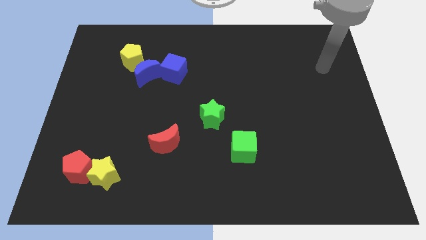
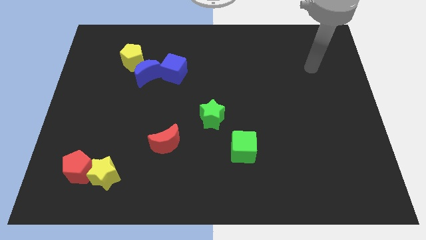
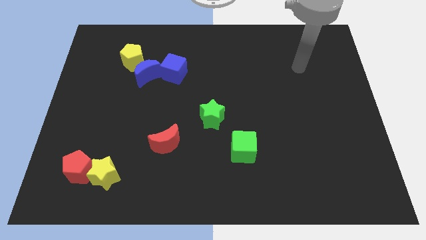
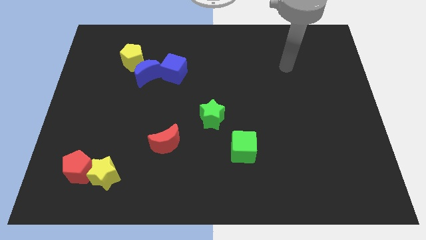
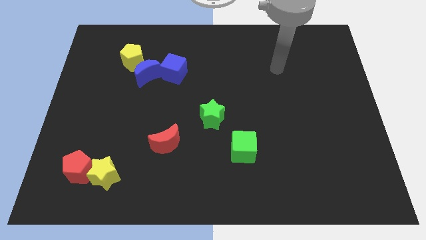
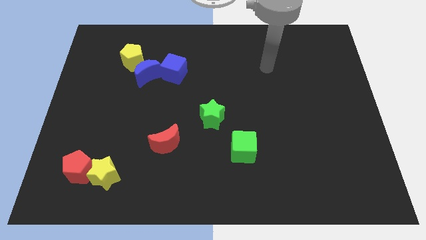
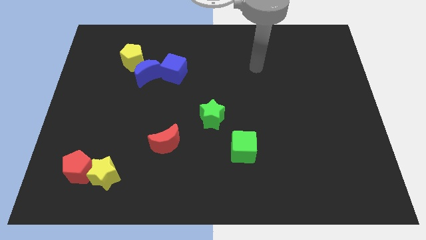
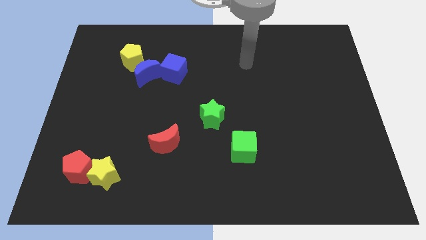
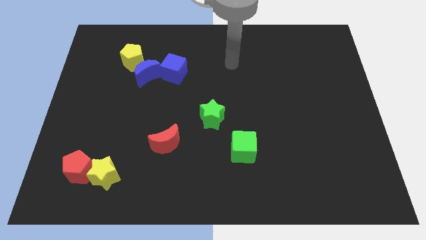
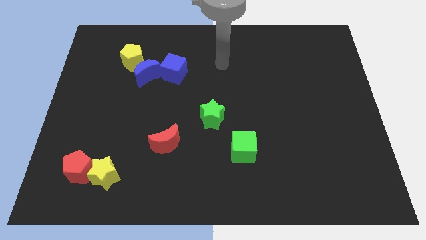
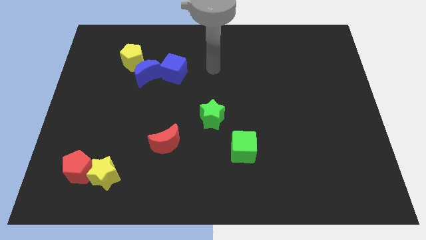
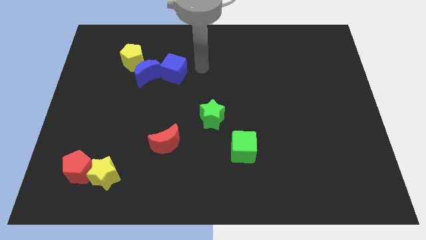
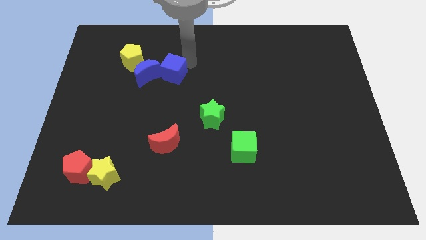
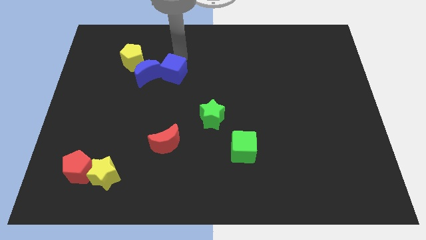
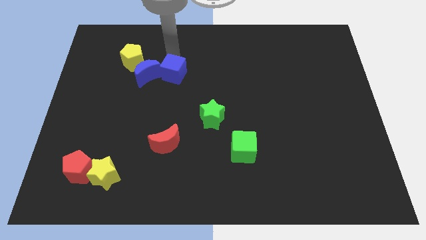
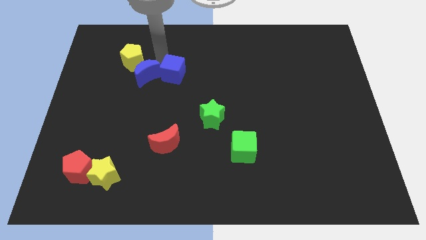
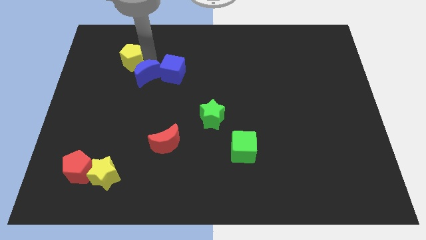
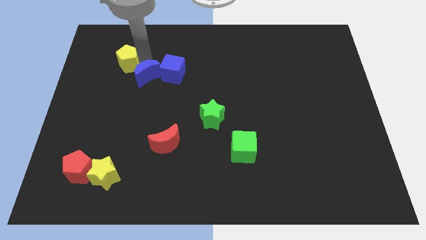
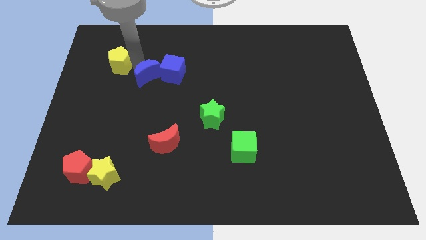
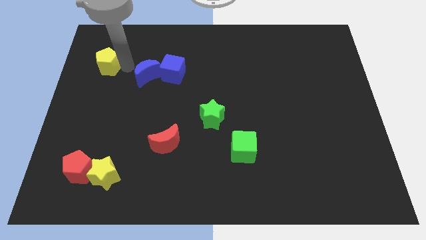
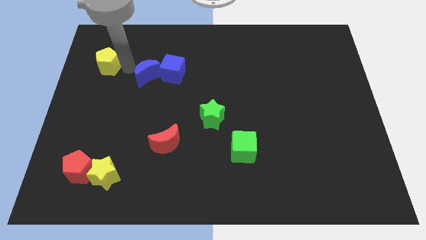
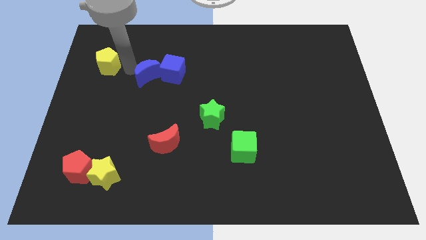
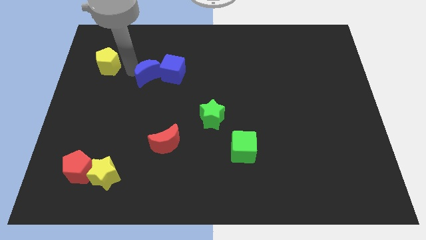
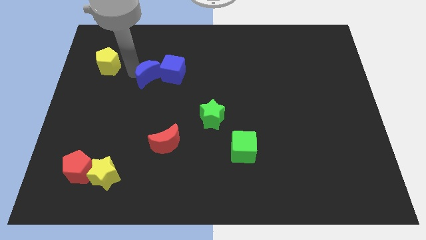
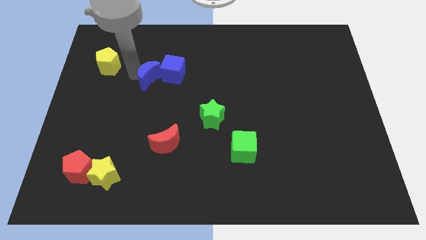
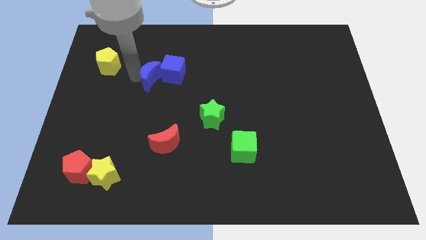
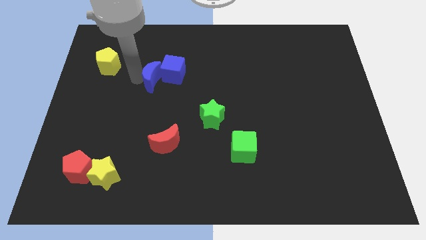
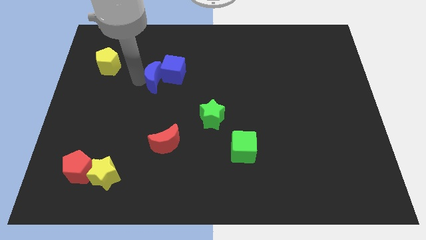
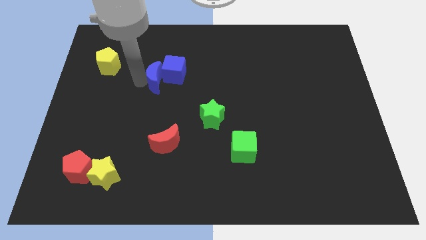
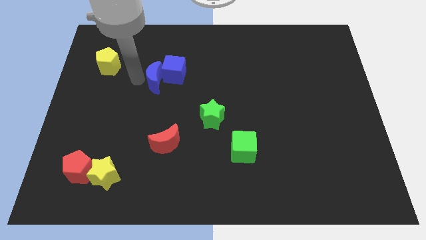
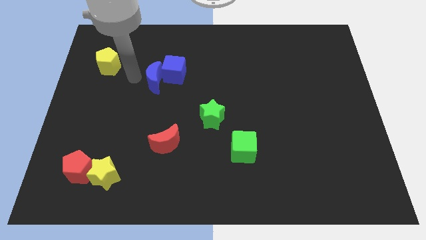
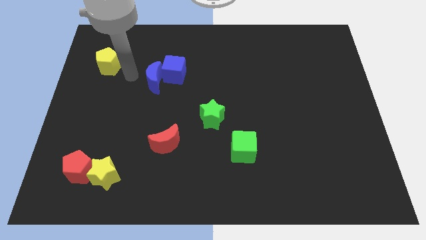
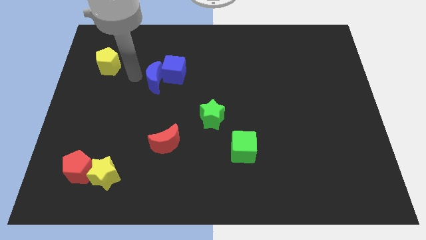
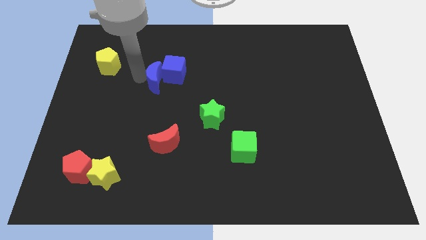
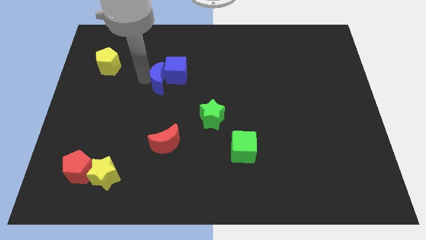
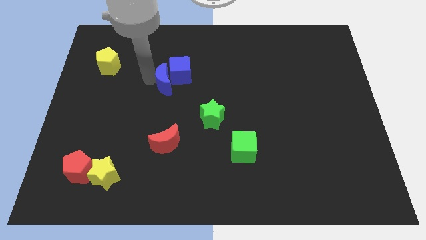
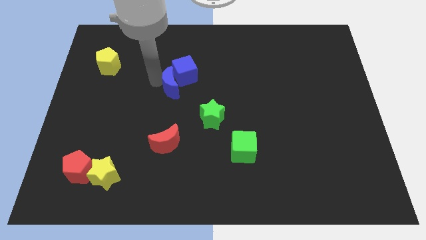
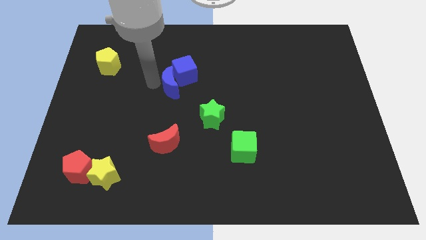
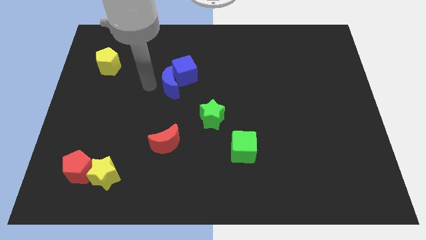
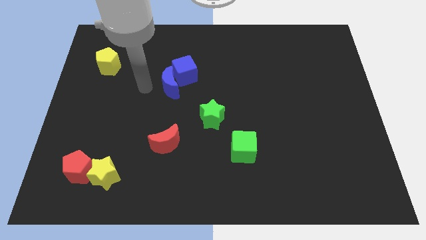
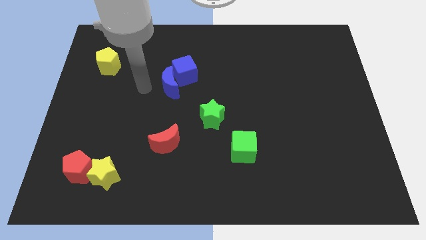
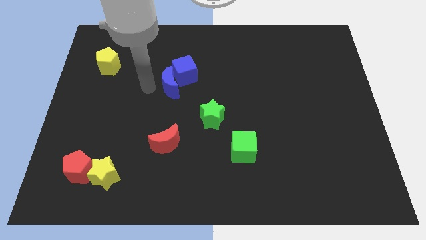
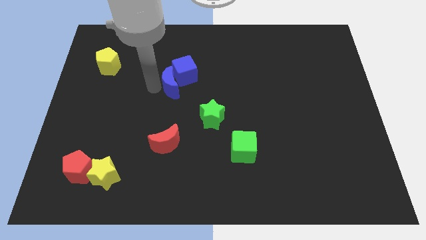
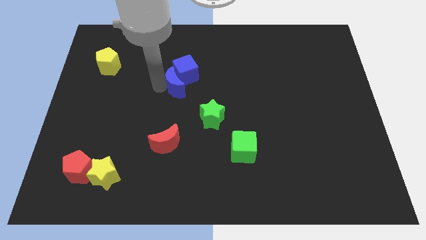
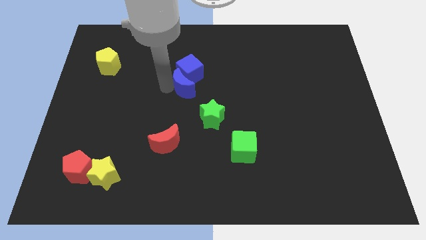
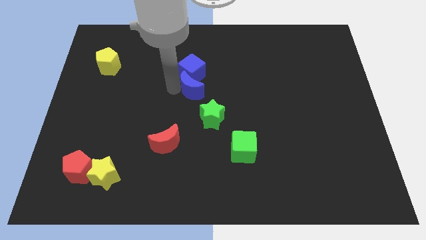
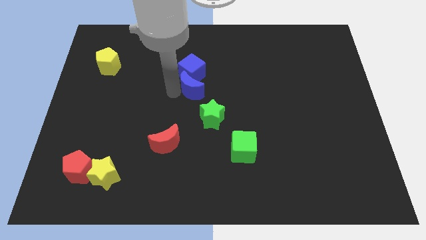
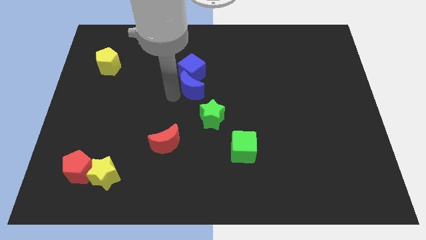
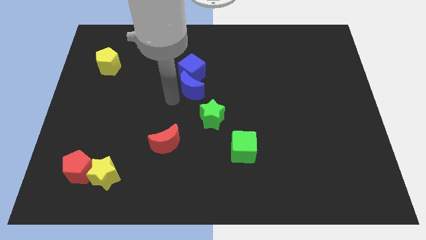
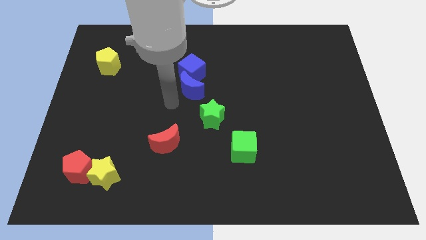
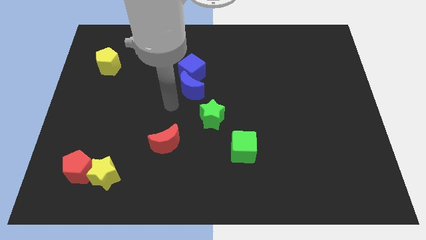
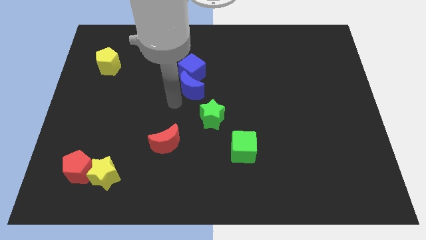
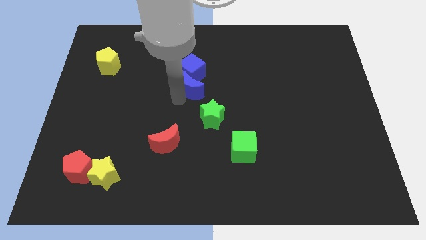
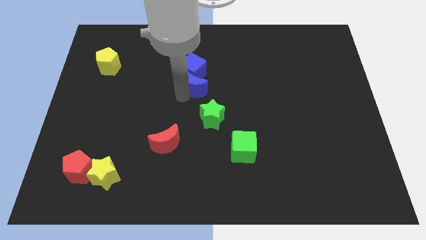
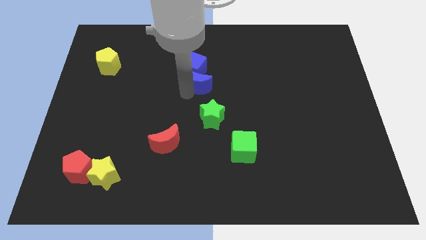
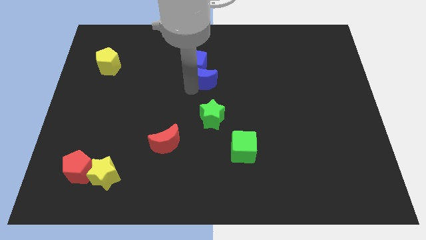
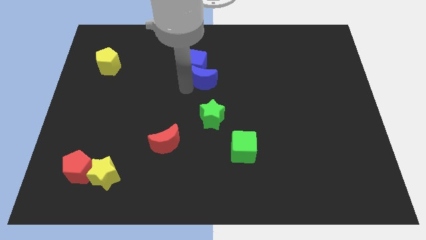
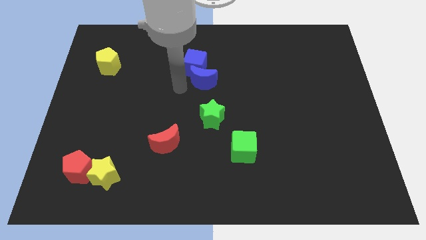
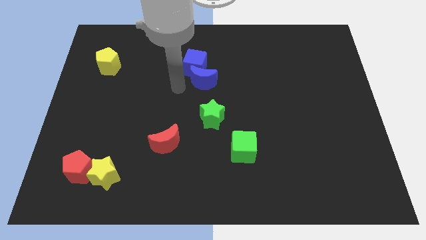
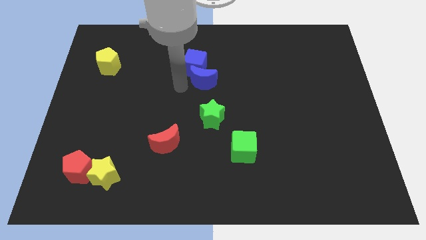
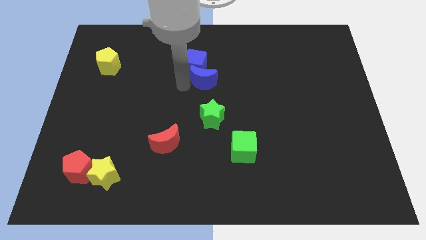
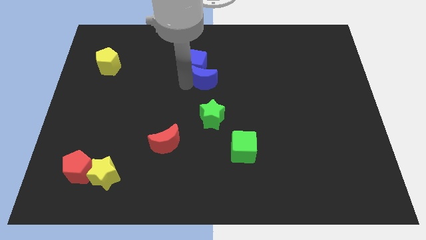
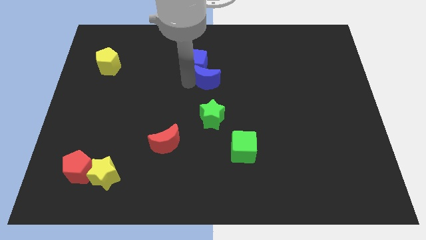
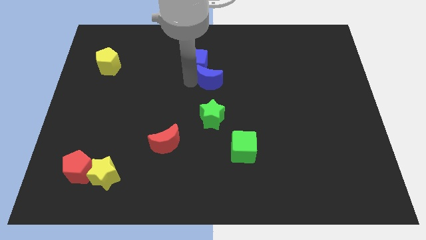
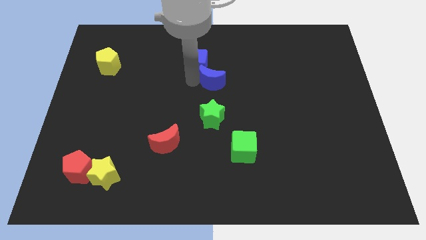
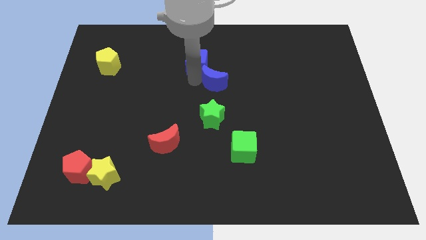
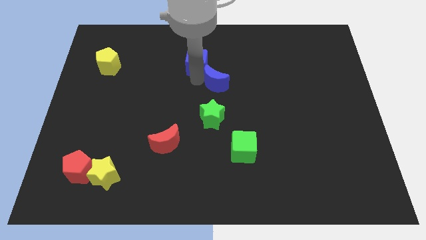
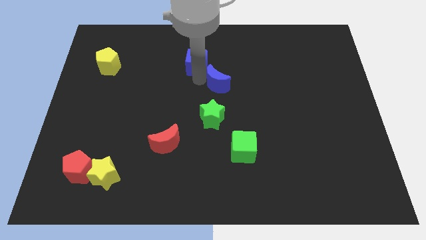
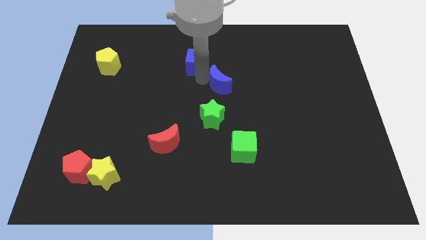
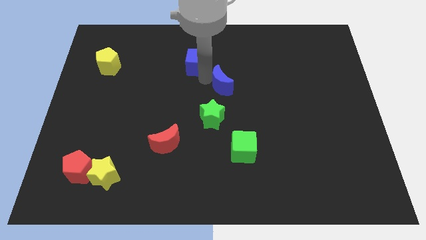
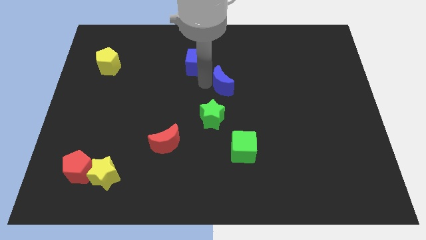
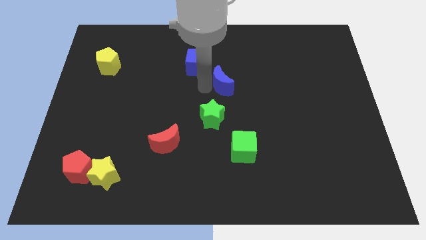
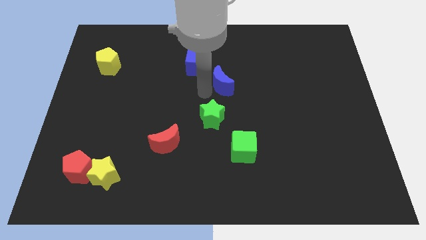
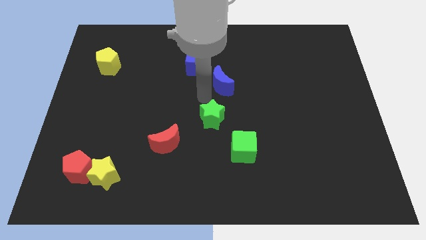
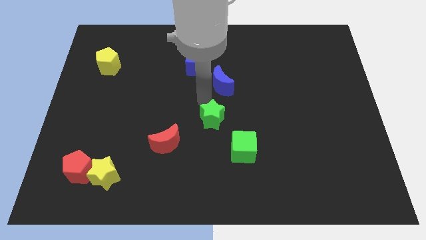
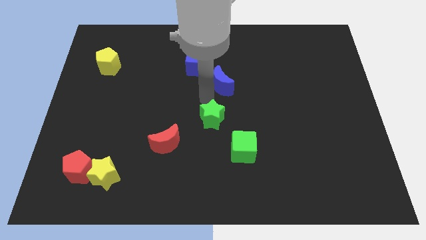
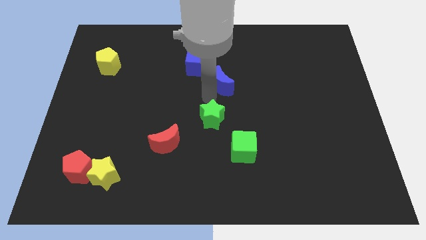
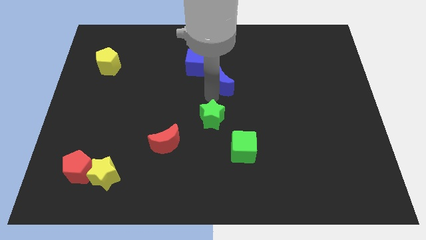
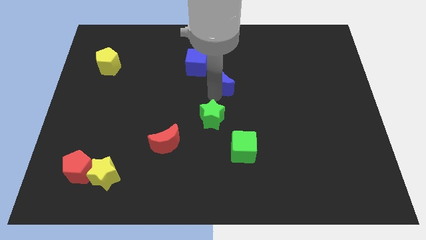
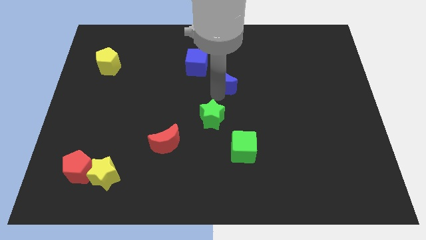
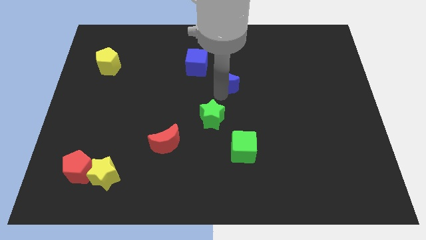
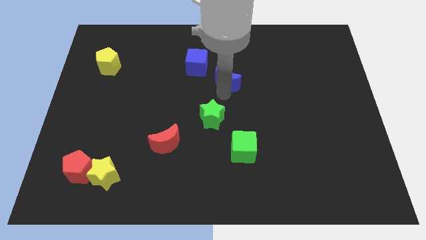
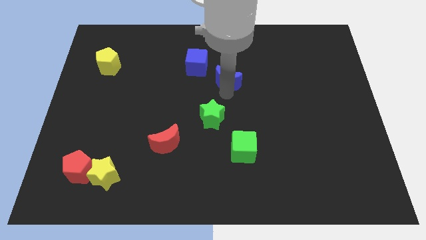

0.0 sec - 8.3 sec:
move the blue moon to the right
